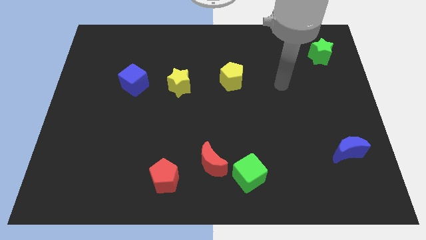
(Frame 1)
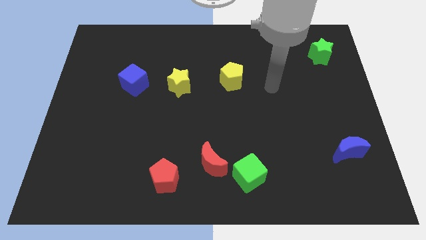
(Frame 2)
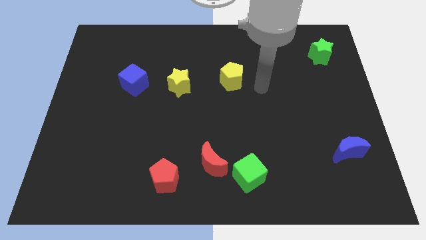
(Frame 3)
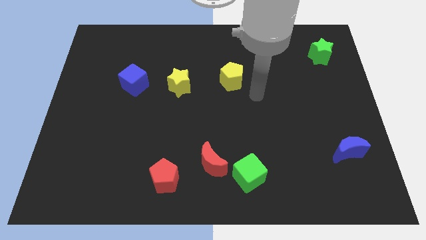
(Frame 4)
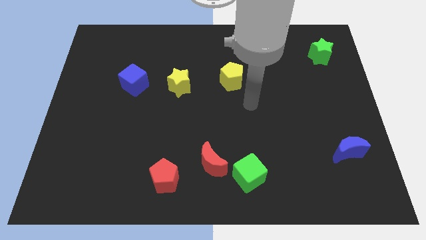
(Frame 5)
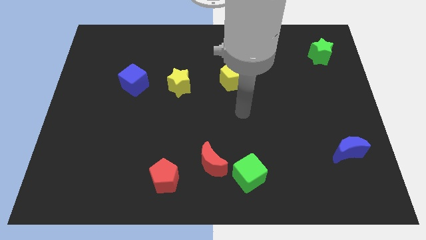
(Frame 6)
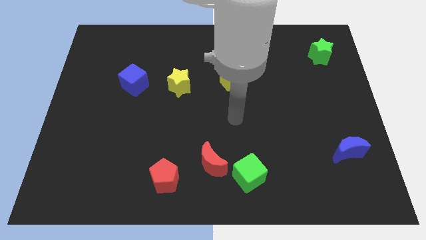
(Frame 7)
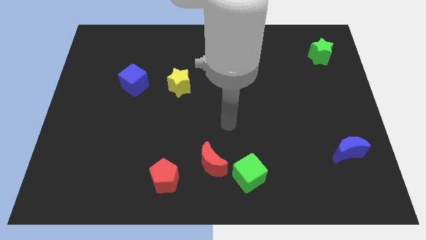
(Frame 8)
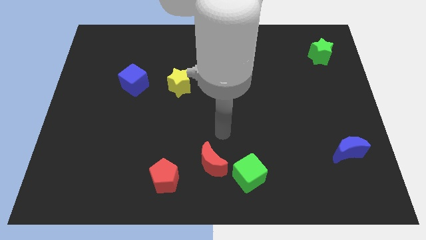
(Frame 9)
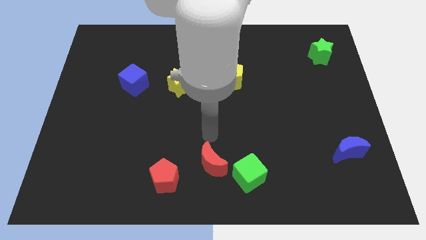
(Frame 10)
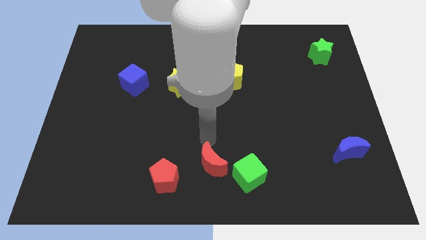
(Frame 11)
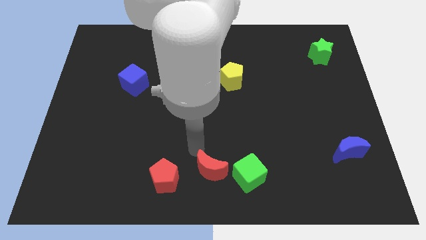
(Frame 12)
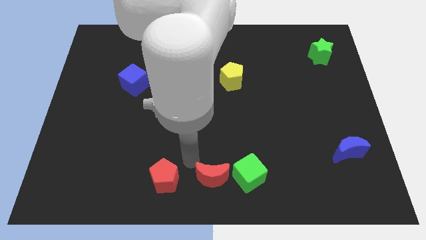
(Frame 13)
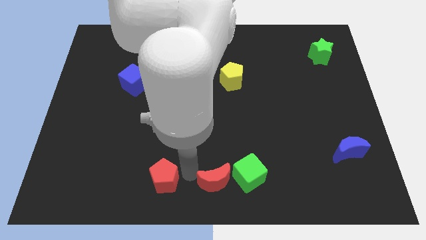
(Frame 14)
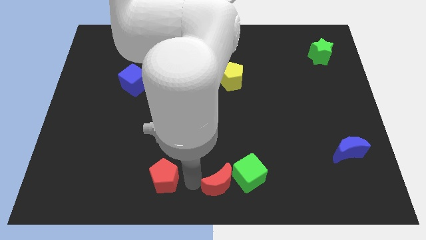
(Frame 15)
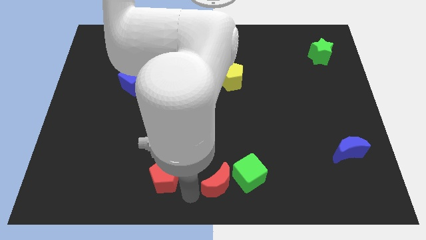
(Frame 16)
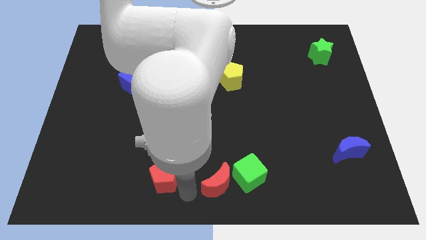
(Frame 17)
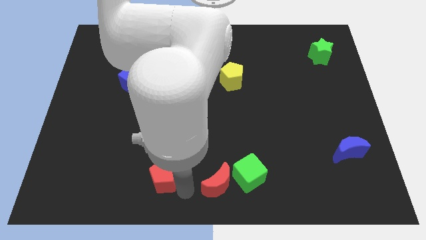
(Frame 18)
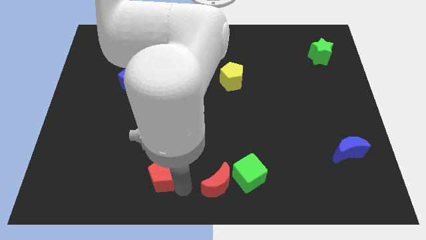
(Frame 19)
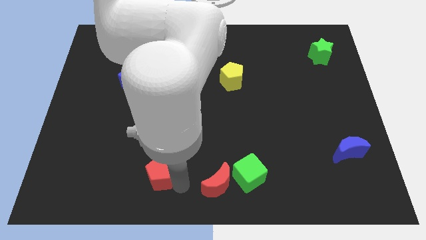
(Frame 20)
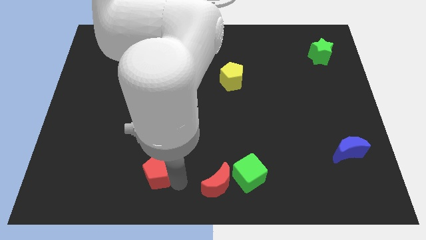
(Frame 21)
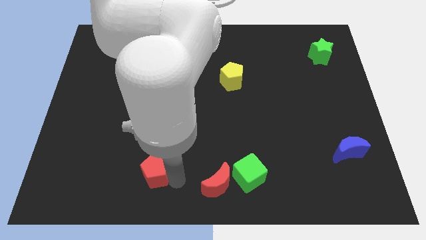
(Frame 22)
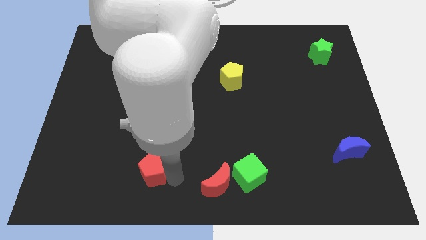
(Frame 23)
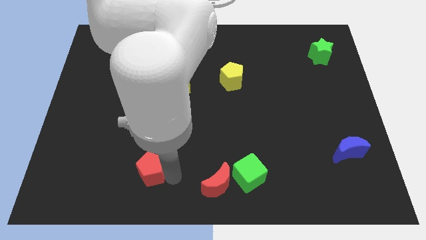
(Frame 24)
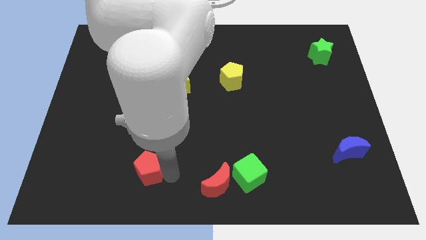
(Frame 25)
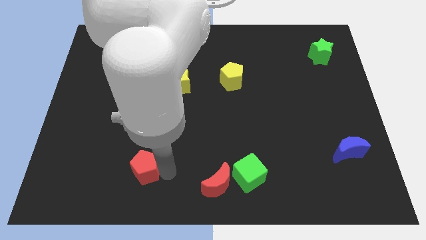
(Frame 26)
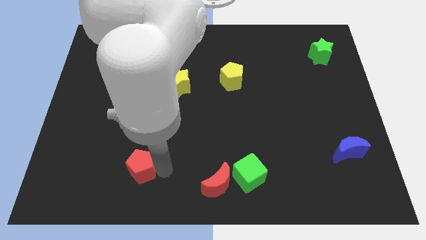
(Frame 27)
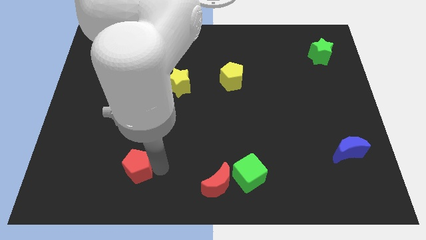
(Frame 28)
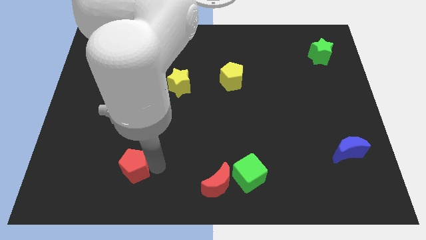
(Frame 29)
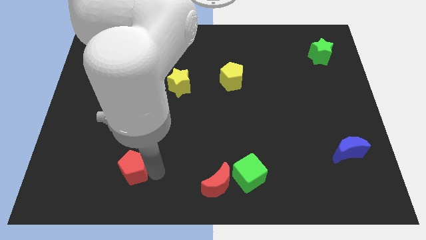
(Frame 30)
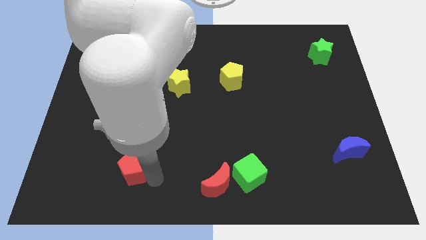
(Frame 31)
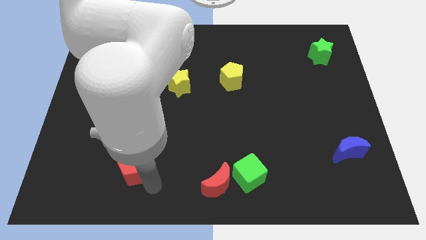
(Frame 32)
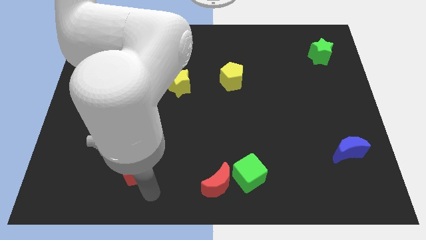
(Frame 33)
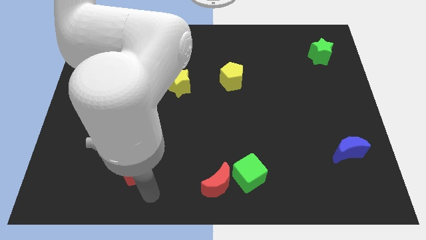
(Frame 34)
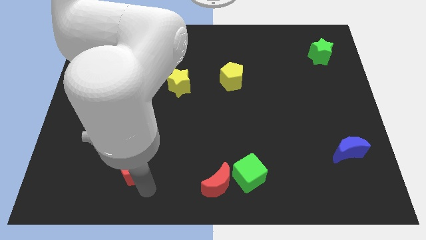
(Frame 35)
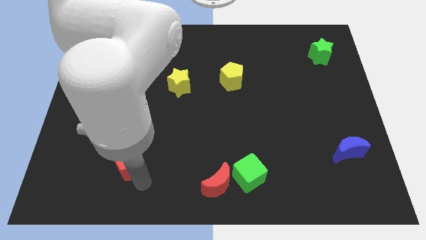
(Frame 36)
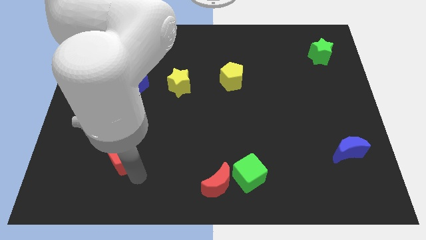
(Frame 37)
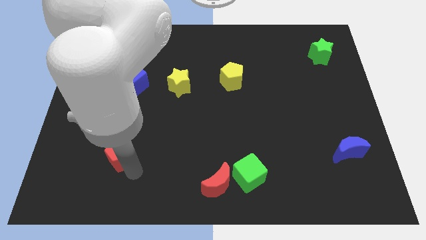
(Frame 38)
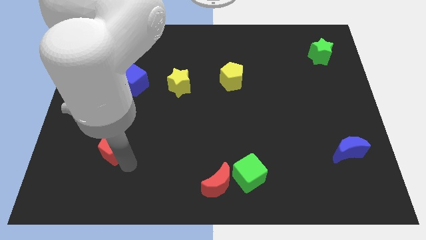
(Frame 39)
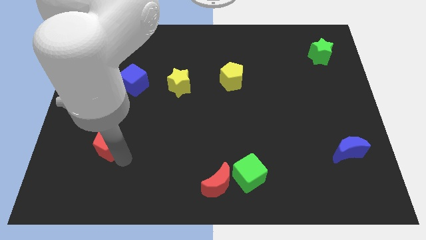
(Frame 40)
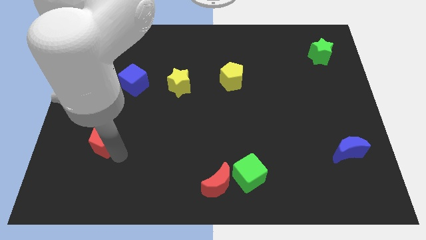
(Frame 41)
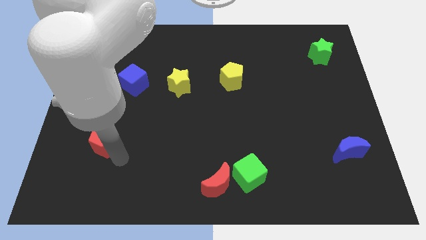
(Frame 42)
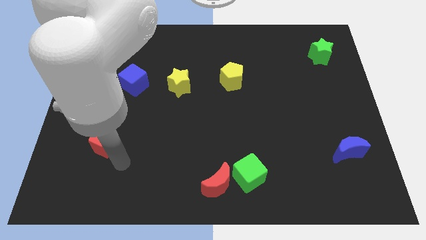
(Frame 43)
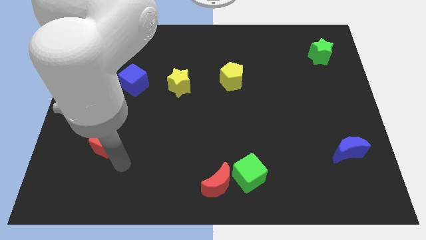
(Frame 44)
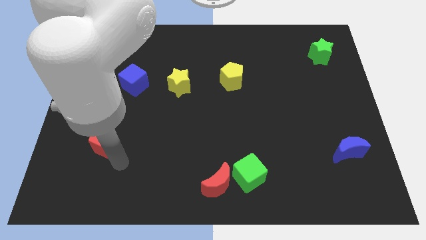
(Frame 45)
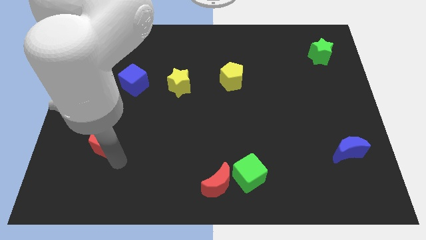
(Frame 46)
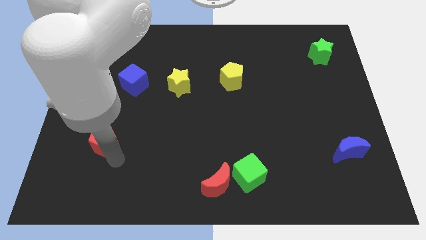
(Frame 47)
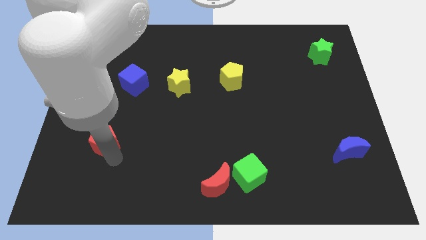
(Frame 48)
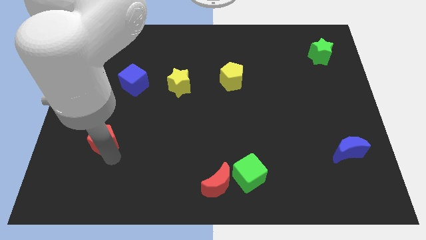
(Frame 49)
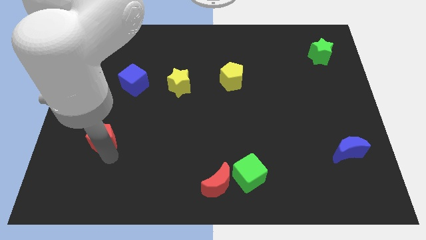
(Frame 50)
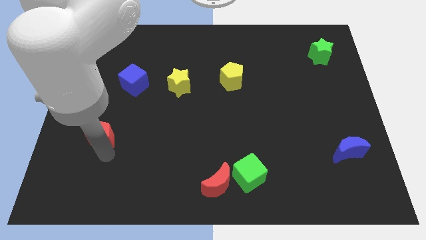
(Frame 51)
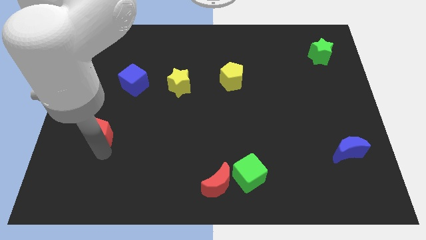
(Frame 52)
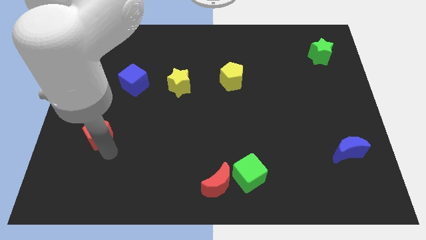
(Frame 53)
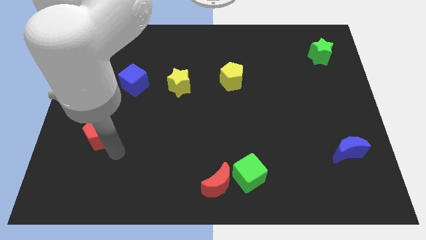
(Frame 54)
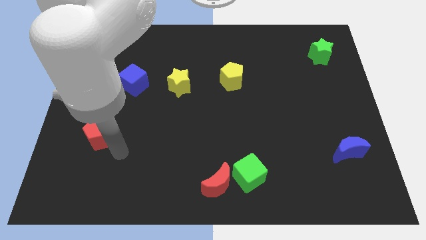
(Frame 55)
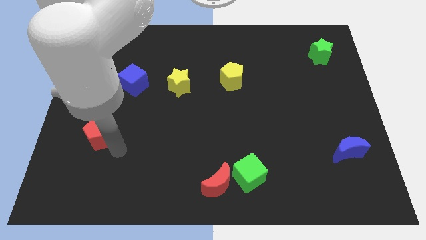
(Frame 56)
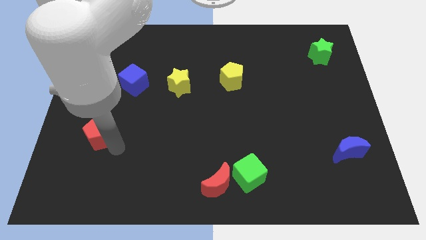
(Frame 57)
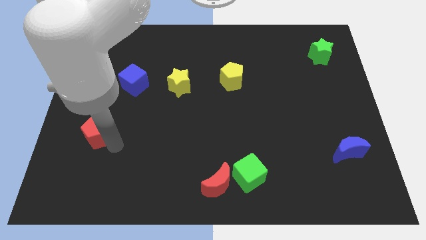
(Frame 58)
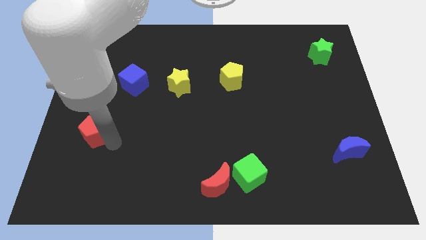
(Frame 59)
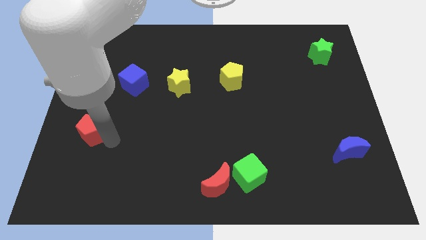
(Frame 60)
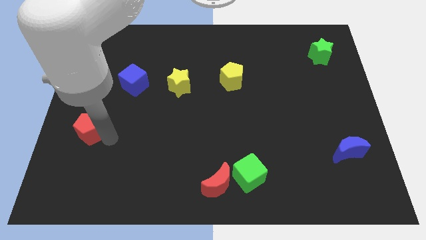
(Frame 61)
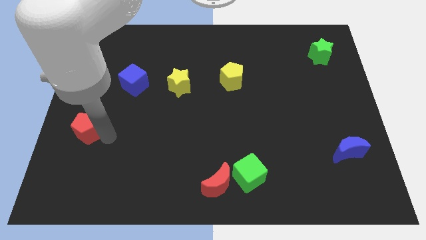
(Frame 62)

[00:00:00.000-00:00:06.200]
move the red pentagon to the left side
